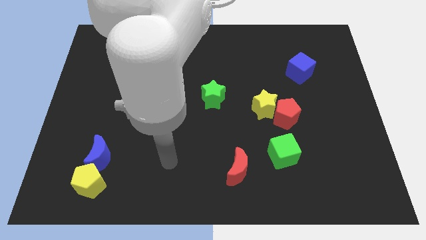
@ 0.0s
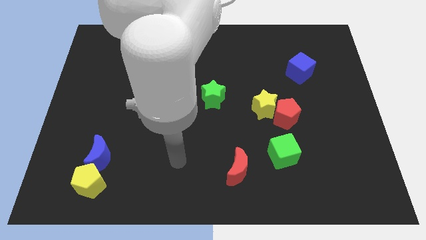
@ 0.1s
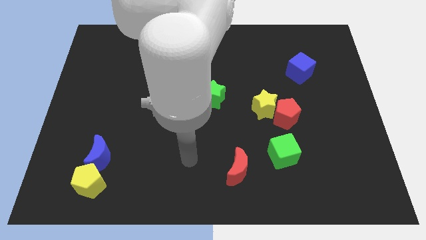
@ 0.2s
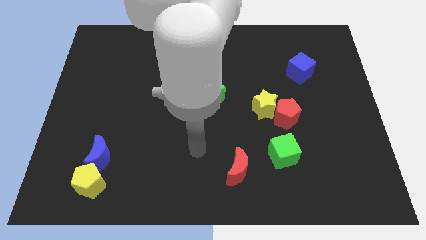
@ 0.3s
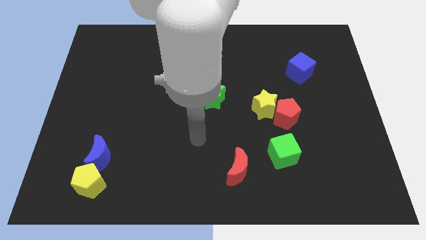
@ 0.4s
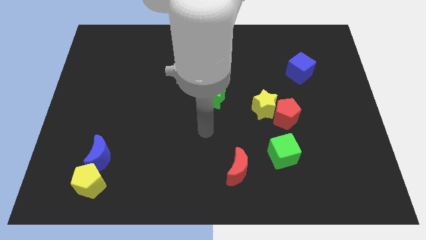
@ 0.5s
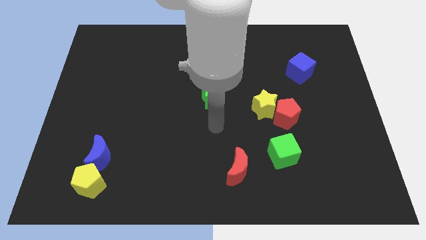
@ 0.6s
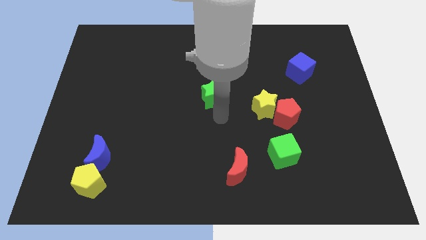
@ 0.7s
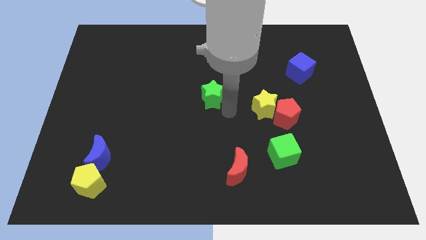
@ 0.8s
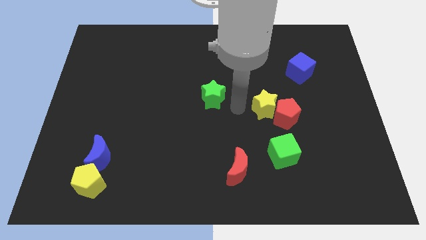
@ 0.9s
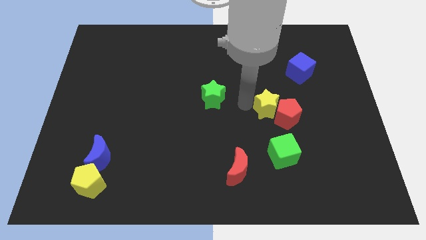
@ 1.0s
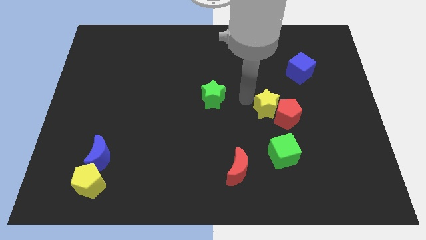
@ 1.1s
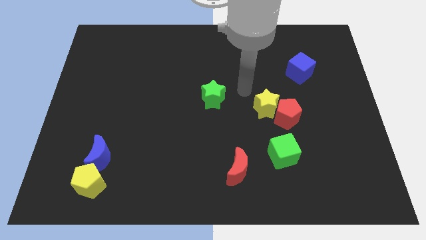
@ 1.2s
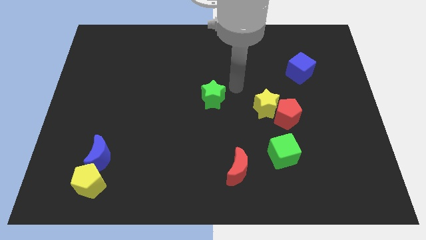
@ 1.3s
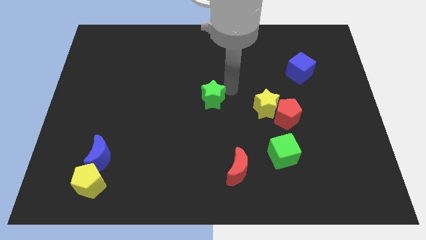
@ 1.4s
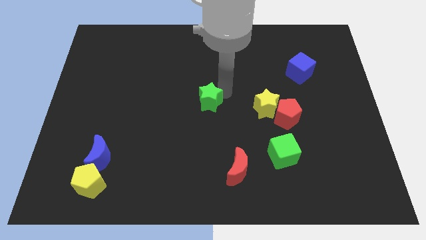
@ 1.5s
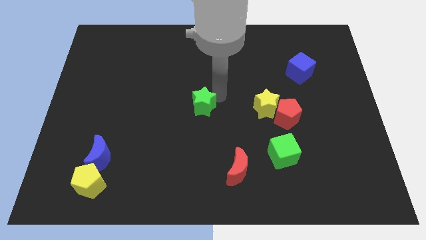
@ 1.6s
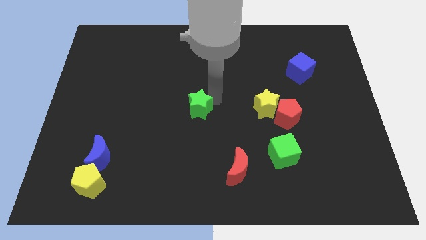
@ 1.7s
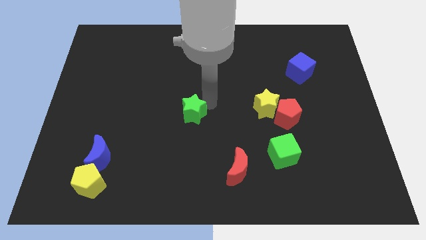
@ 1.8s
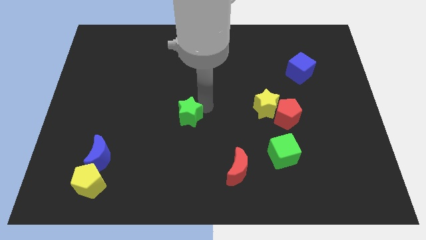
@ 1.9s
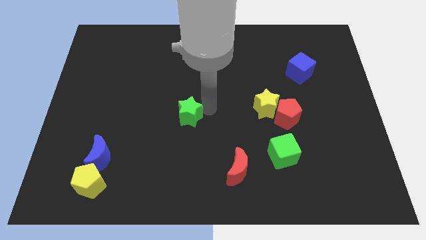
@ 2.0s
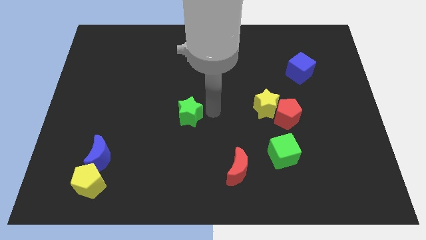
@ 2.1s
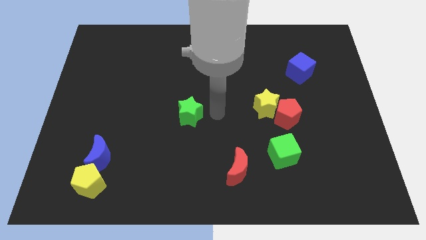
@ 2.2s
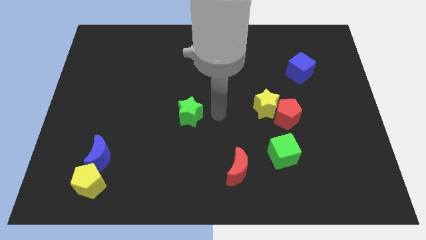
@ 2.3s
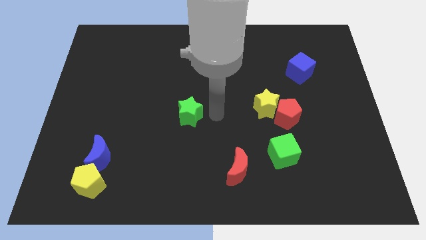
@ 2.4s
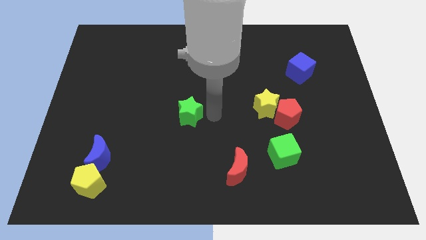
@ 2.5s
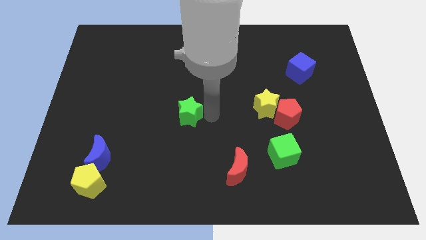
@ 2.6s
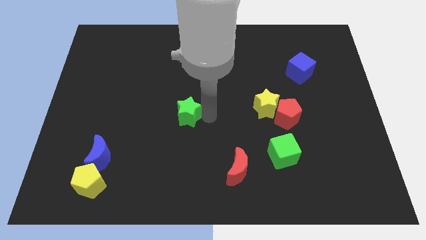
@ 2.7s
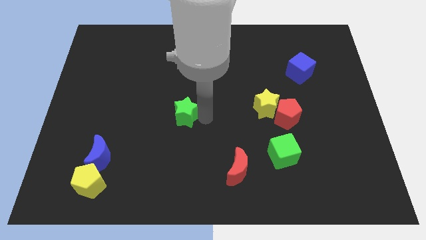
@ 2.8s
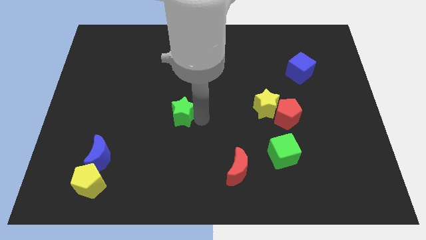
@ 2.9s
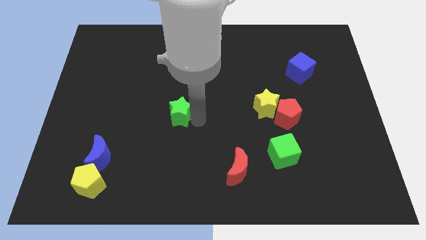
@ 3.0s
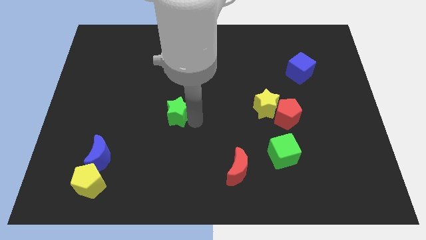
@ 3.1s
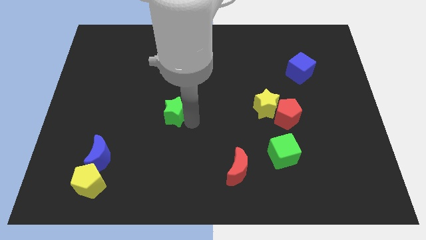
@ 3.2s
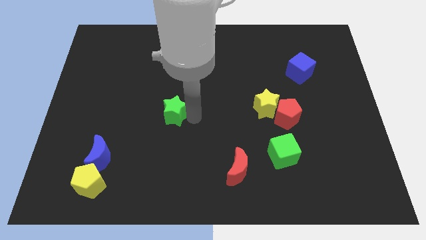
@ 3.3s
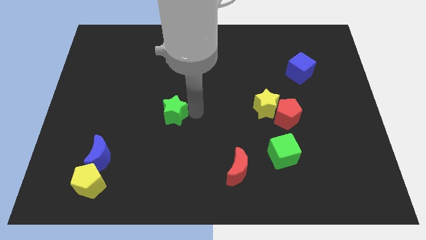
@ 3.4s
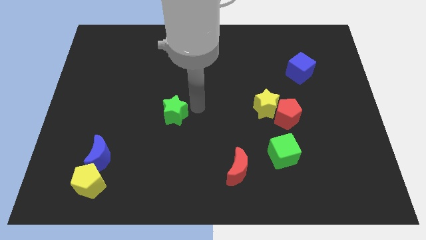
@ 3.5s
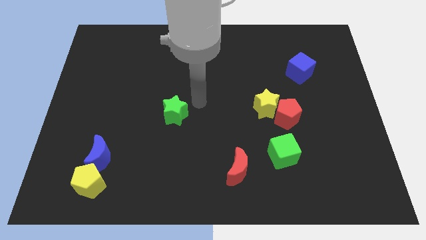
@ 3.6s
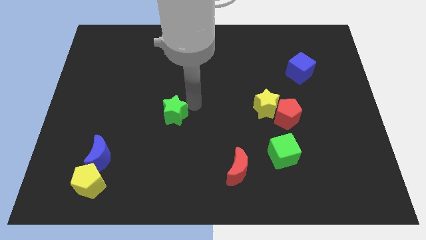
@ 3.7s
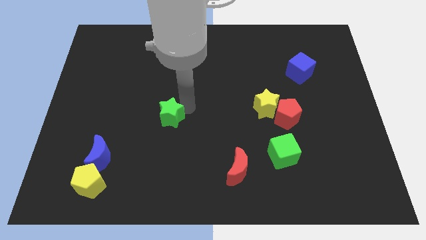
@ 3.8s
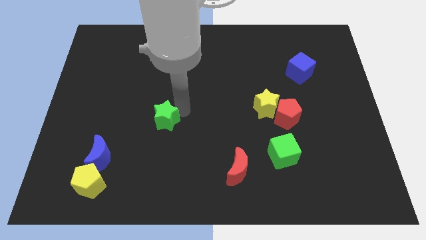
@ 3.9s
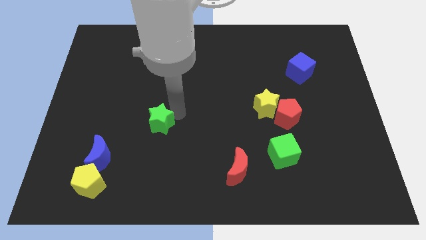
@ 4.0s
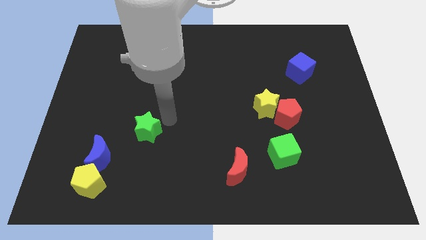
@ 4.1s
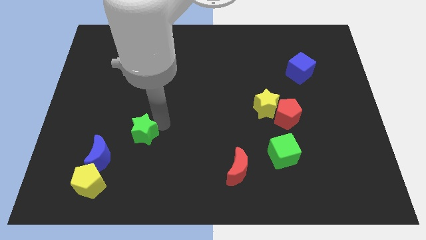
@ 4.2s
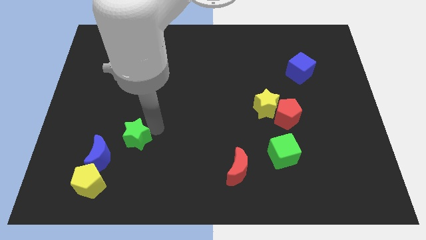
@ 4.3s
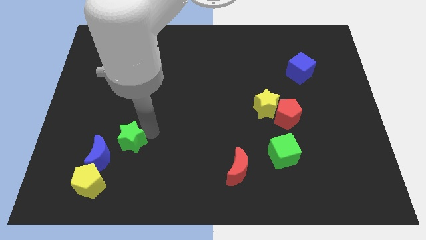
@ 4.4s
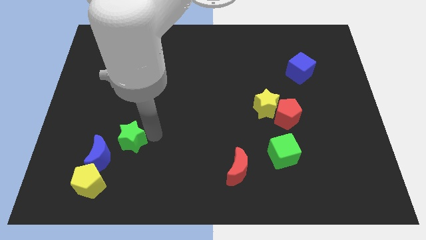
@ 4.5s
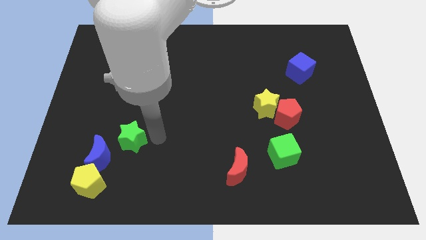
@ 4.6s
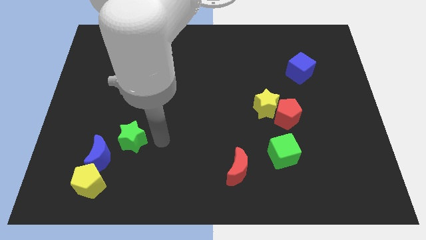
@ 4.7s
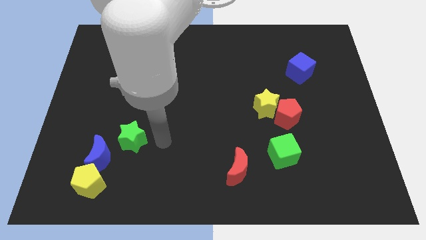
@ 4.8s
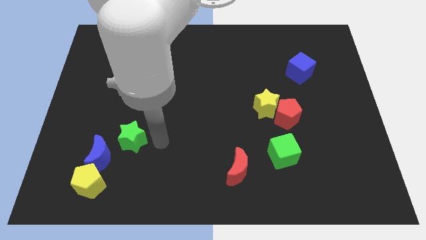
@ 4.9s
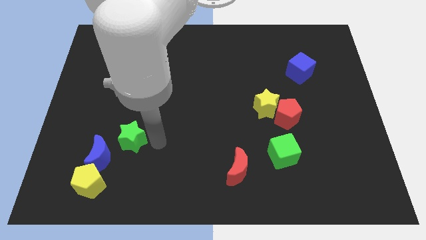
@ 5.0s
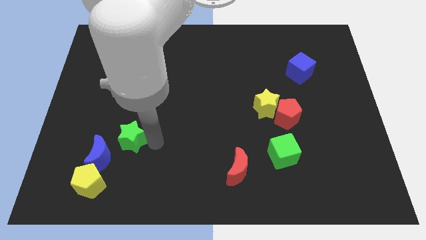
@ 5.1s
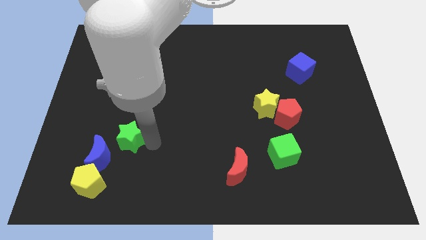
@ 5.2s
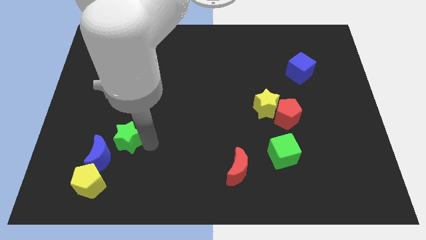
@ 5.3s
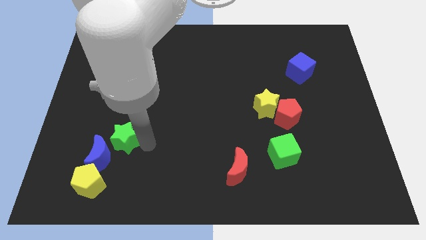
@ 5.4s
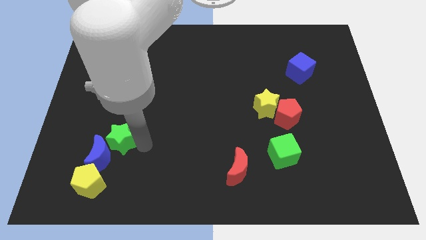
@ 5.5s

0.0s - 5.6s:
push the green star above the yellow pentagon

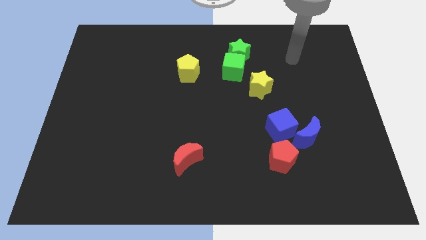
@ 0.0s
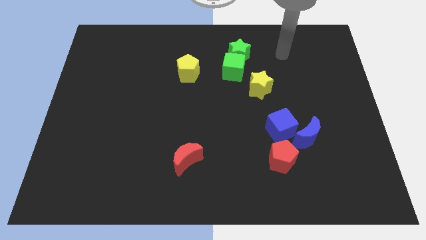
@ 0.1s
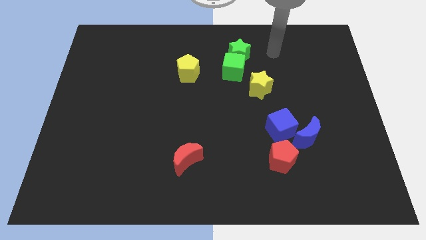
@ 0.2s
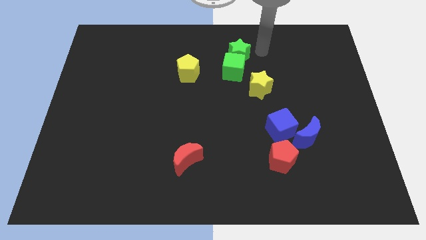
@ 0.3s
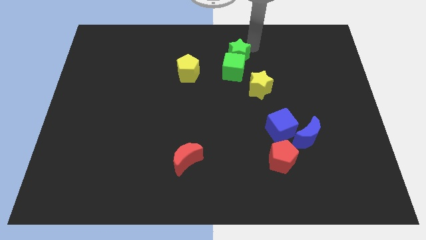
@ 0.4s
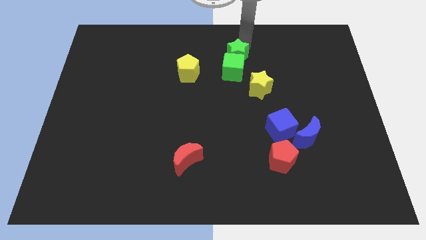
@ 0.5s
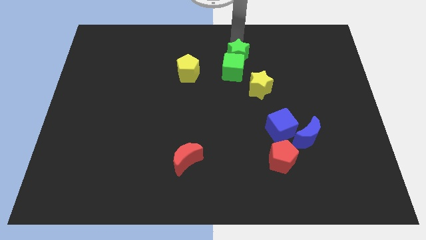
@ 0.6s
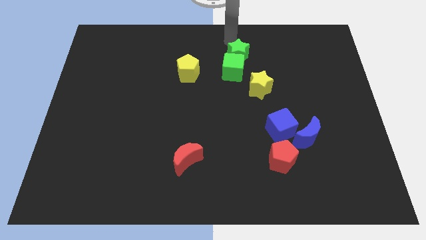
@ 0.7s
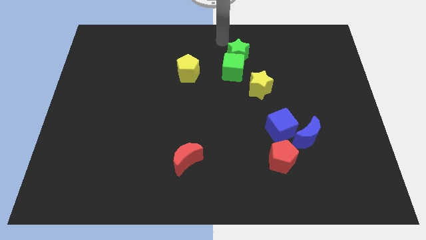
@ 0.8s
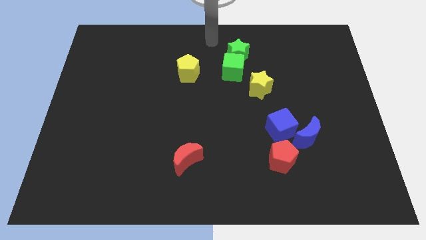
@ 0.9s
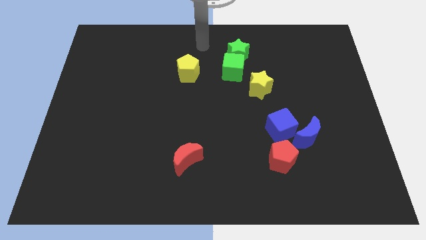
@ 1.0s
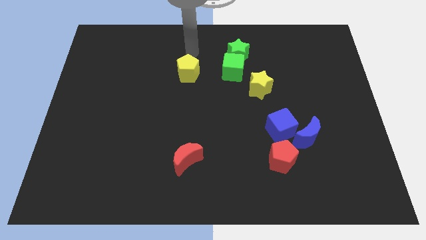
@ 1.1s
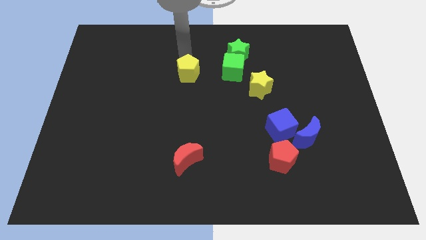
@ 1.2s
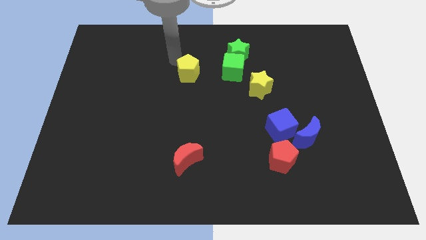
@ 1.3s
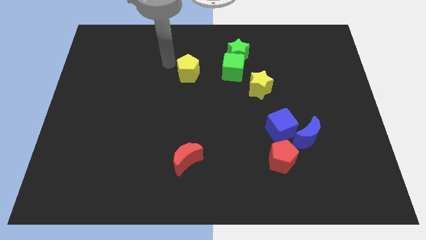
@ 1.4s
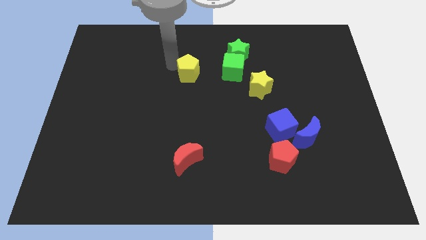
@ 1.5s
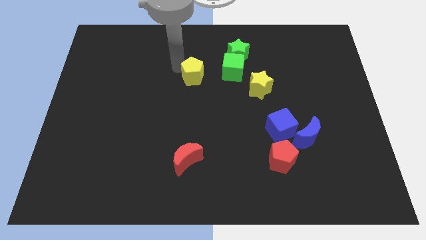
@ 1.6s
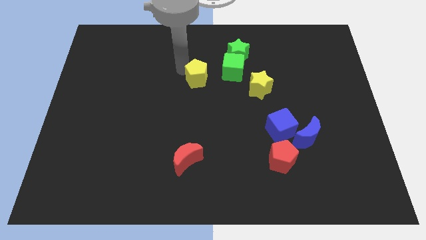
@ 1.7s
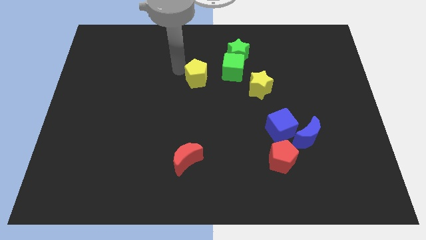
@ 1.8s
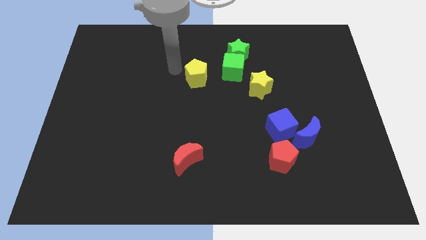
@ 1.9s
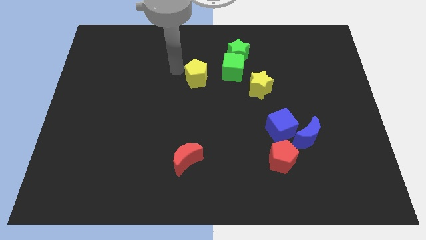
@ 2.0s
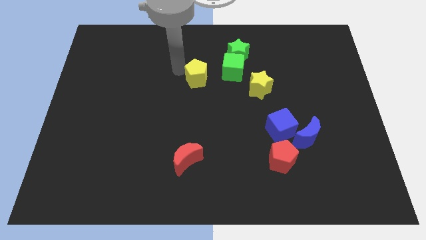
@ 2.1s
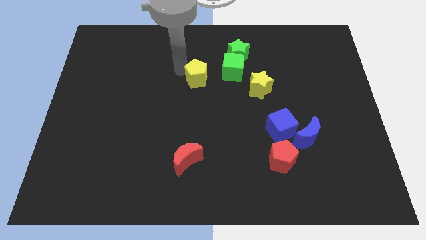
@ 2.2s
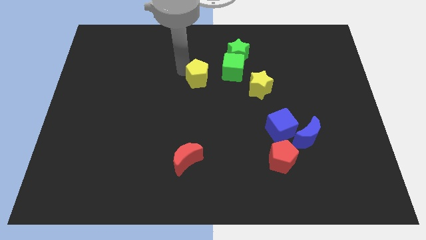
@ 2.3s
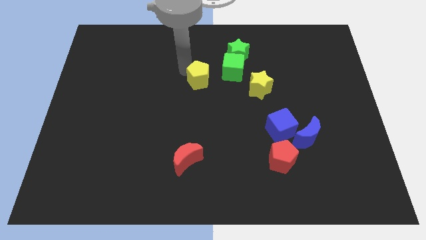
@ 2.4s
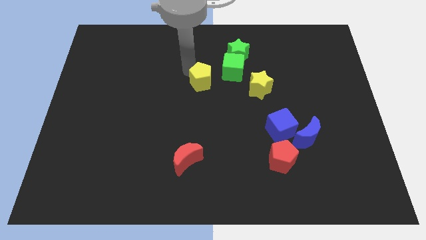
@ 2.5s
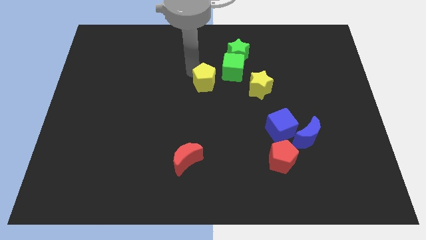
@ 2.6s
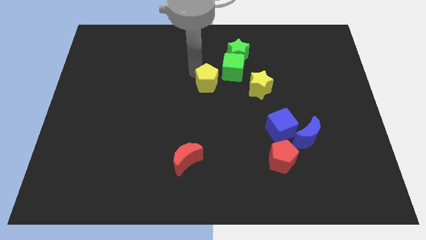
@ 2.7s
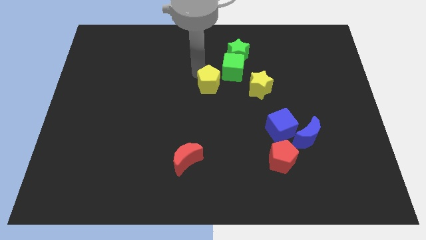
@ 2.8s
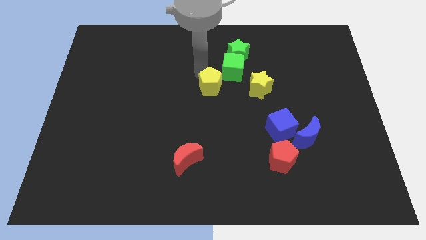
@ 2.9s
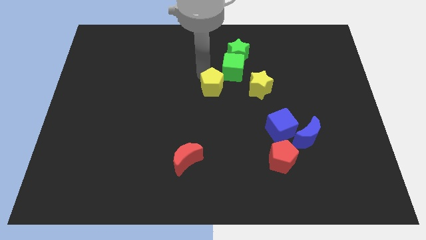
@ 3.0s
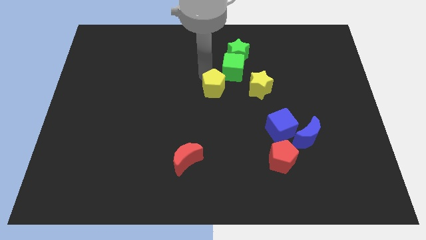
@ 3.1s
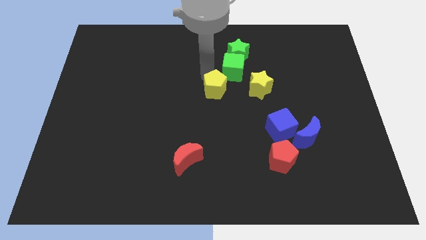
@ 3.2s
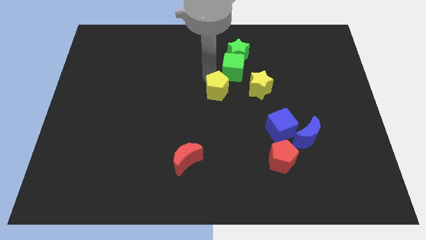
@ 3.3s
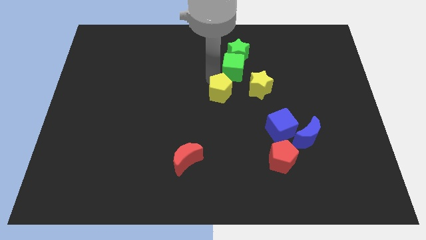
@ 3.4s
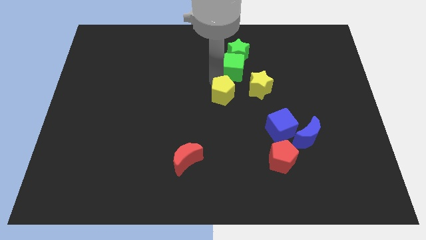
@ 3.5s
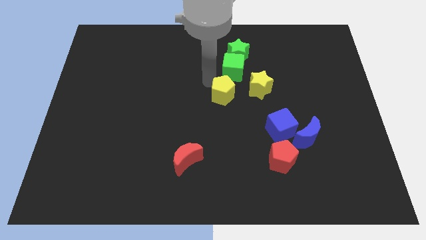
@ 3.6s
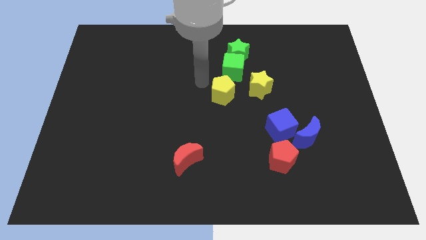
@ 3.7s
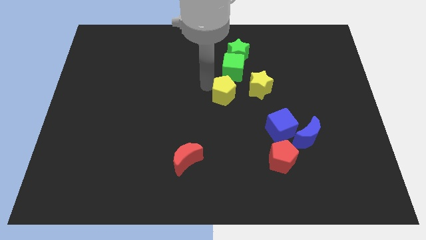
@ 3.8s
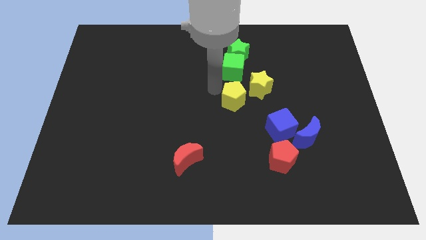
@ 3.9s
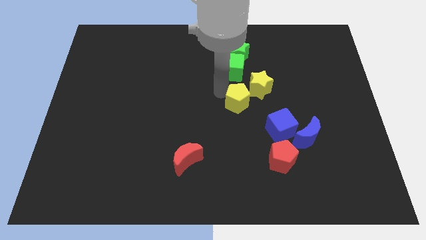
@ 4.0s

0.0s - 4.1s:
put the yellow pentagon to the top left side of the blue cube
